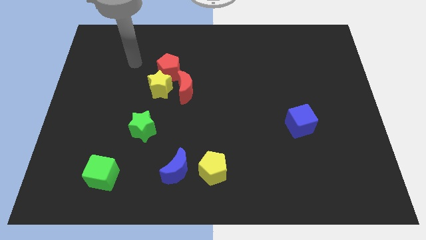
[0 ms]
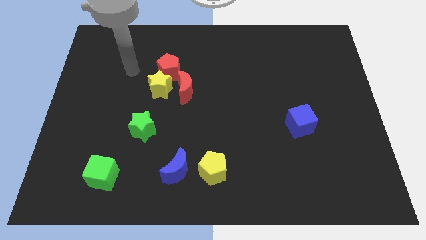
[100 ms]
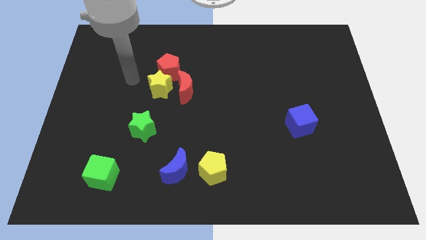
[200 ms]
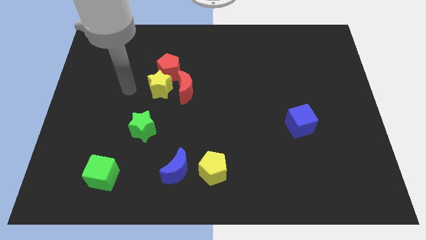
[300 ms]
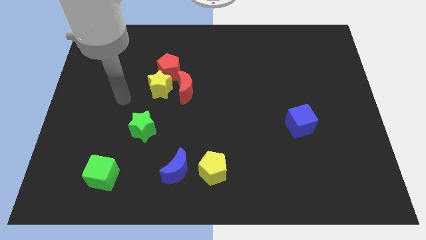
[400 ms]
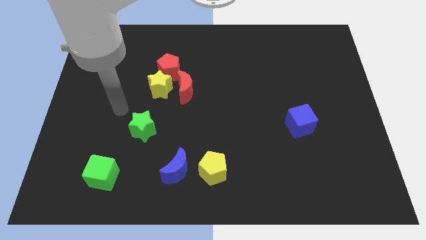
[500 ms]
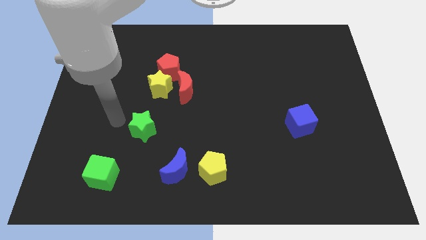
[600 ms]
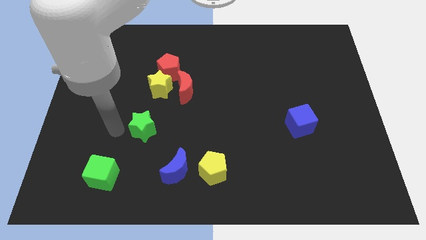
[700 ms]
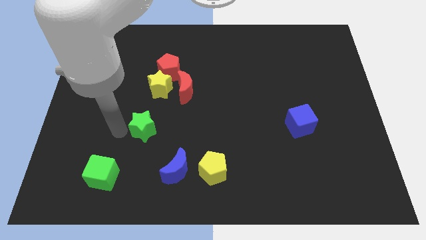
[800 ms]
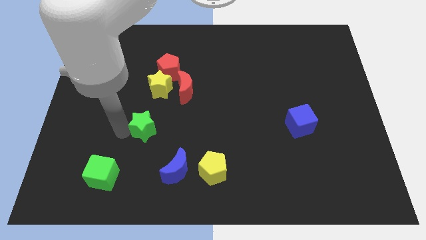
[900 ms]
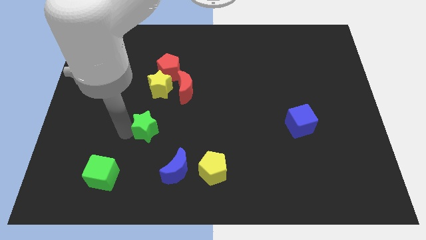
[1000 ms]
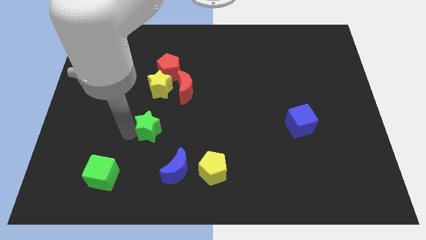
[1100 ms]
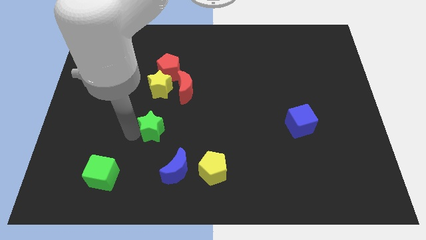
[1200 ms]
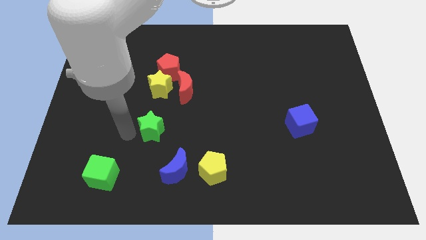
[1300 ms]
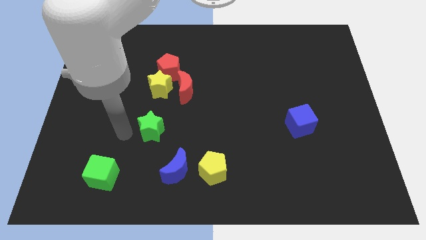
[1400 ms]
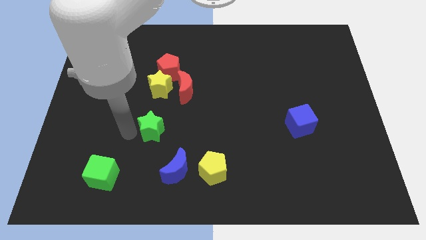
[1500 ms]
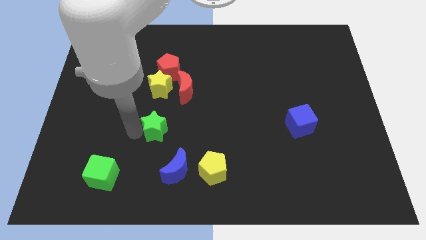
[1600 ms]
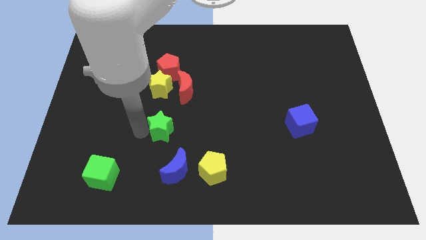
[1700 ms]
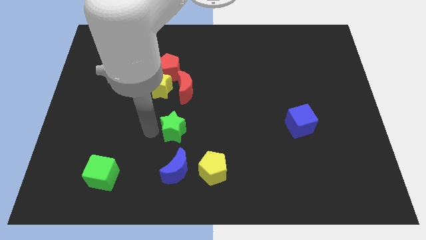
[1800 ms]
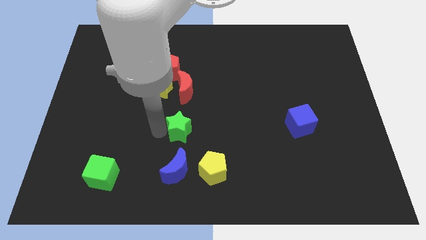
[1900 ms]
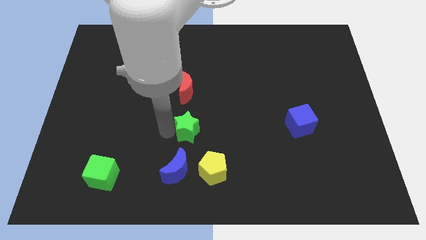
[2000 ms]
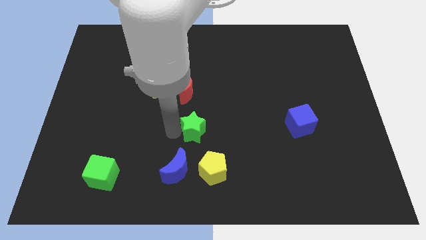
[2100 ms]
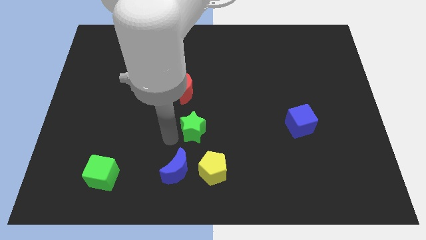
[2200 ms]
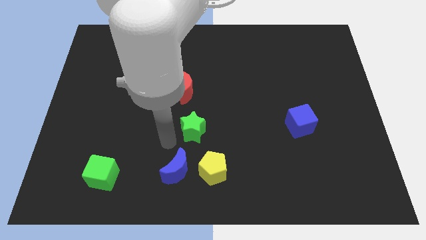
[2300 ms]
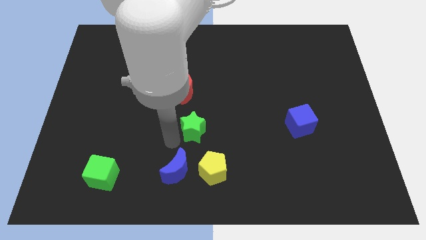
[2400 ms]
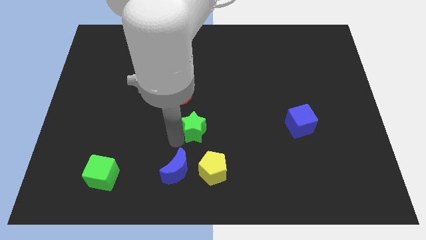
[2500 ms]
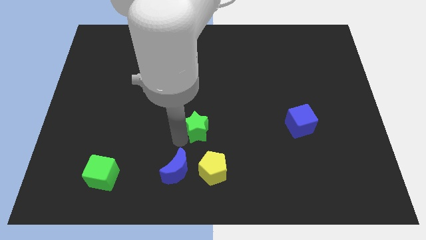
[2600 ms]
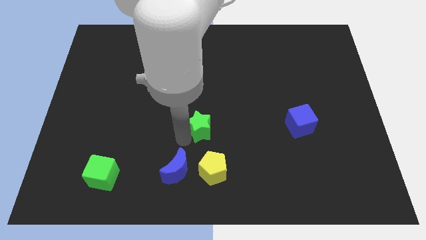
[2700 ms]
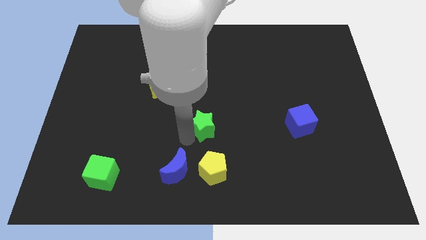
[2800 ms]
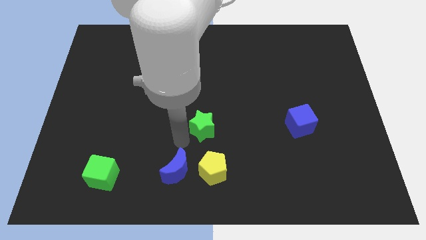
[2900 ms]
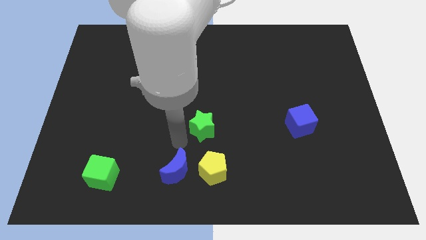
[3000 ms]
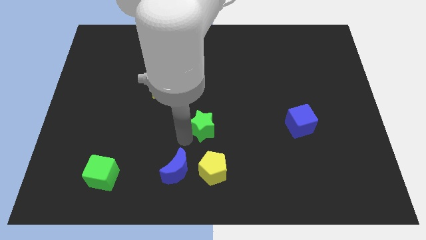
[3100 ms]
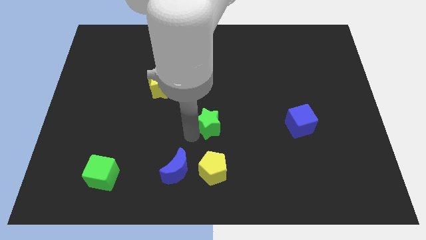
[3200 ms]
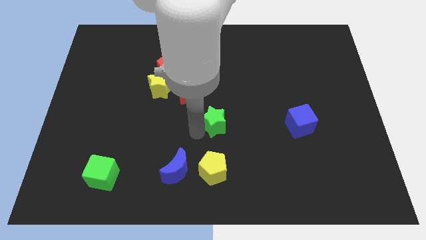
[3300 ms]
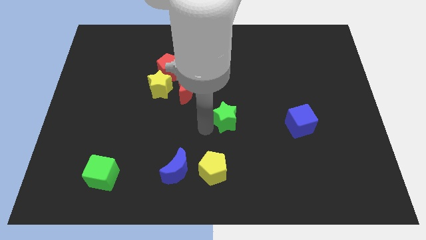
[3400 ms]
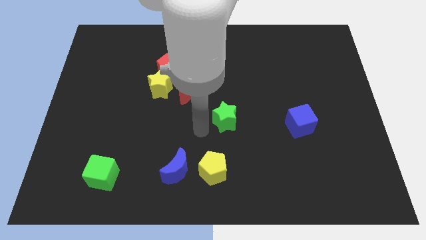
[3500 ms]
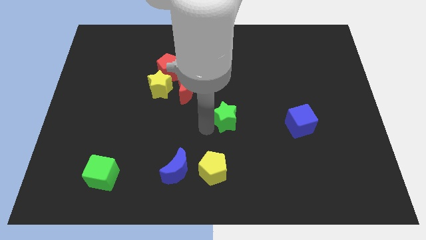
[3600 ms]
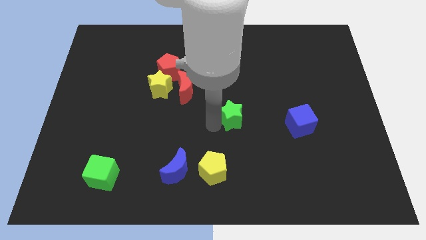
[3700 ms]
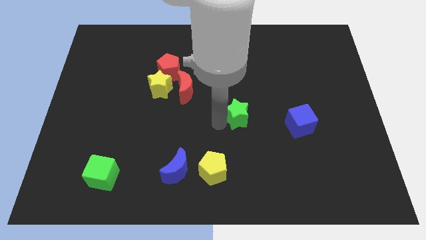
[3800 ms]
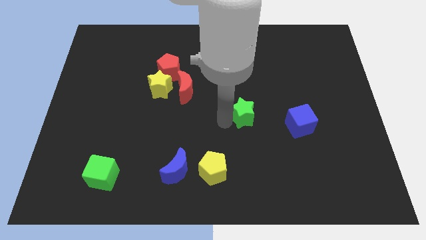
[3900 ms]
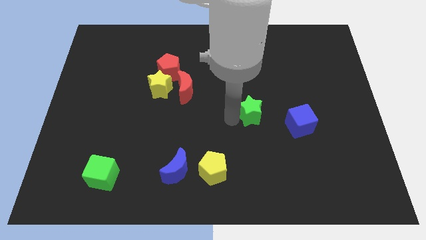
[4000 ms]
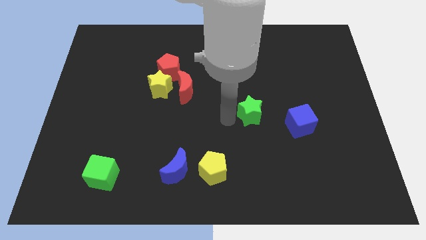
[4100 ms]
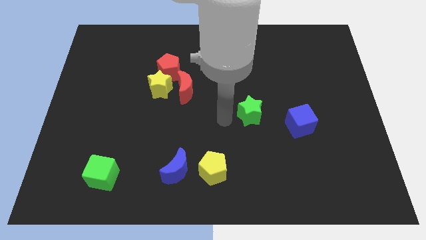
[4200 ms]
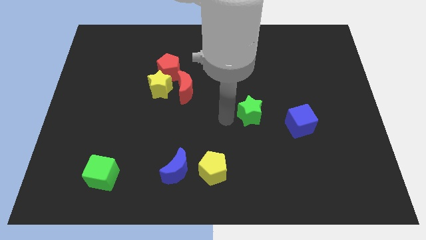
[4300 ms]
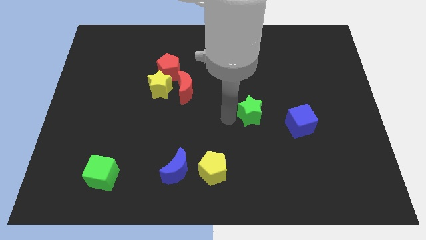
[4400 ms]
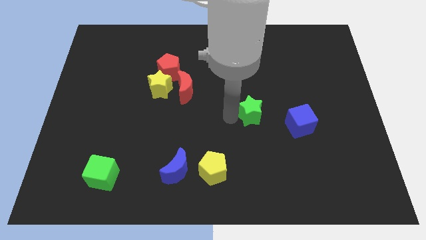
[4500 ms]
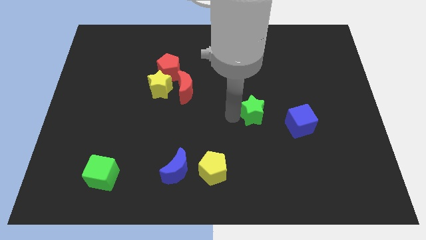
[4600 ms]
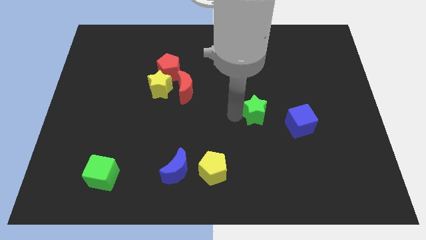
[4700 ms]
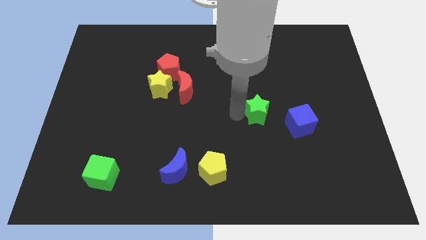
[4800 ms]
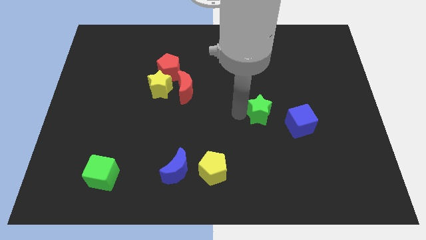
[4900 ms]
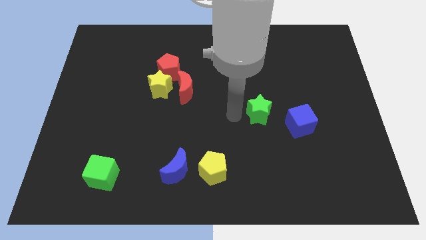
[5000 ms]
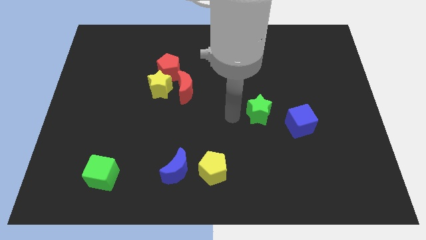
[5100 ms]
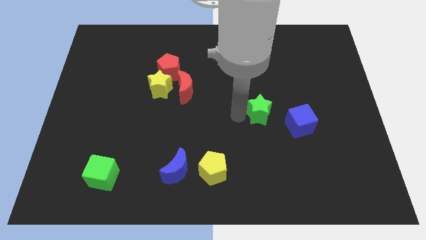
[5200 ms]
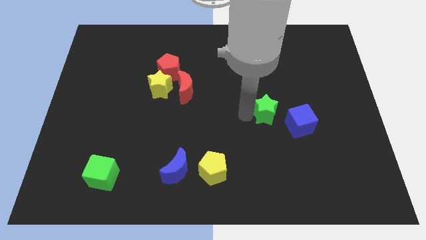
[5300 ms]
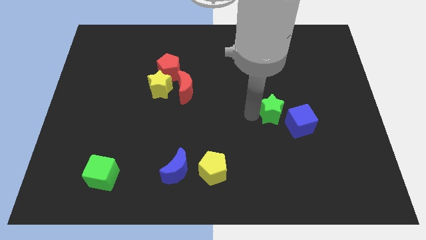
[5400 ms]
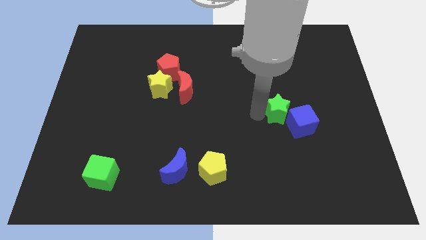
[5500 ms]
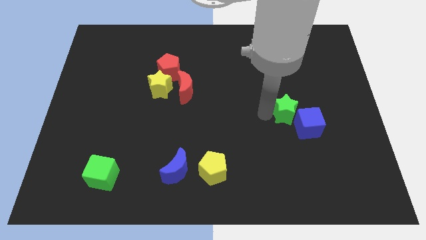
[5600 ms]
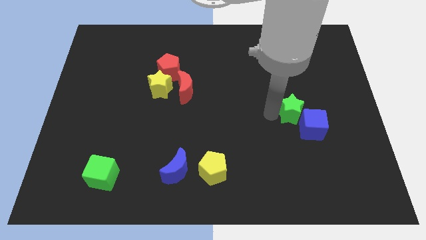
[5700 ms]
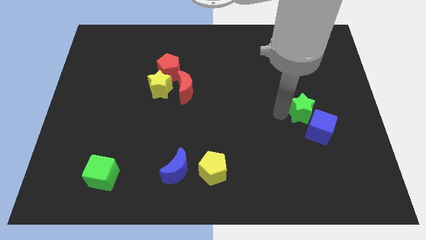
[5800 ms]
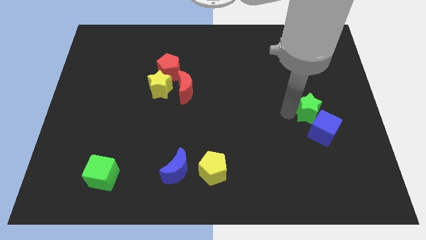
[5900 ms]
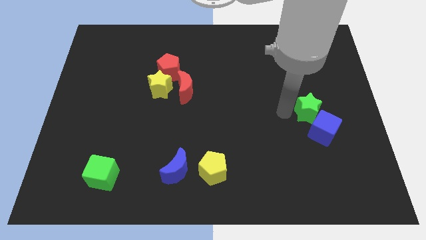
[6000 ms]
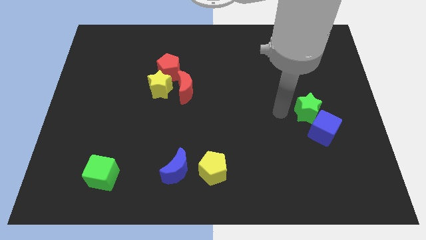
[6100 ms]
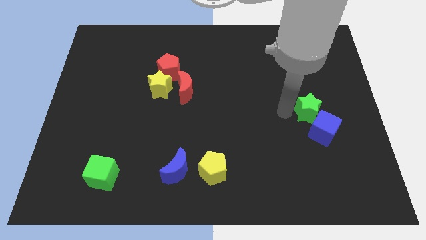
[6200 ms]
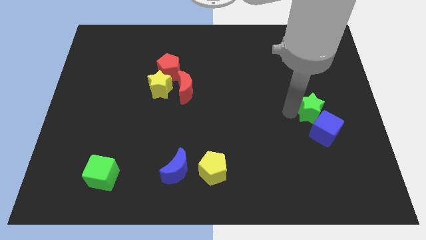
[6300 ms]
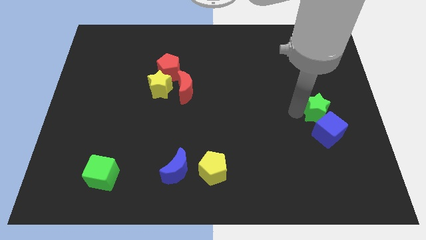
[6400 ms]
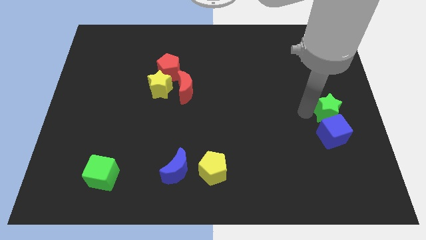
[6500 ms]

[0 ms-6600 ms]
slide the green star to the center right
